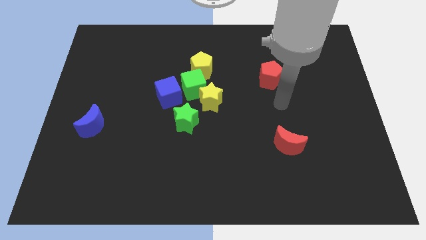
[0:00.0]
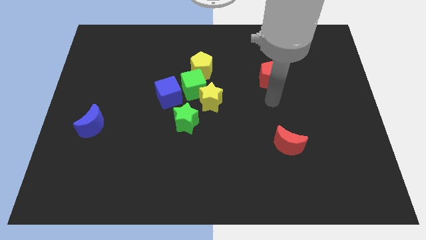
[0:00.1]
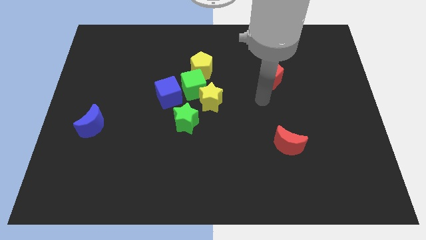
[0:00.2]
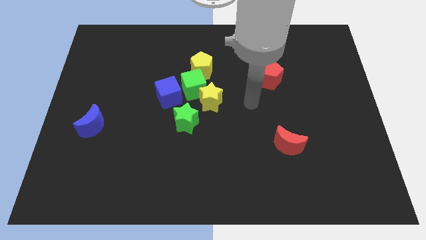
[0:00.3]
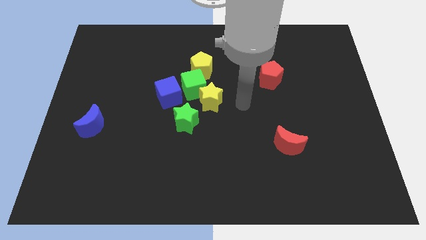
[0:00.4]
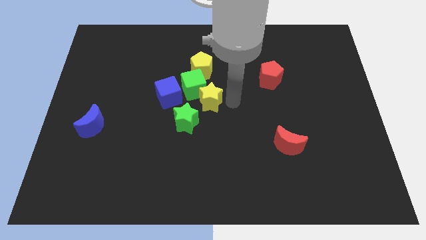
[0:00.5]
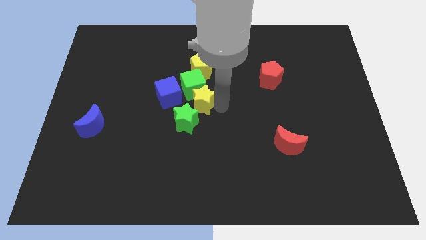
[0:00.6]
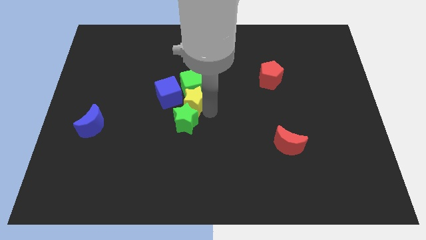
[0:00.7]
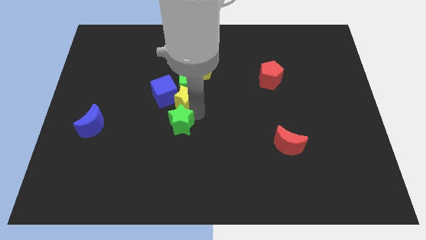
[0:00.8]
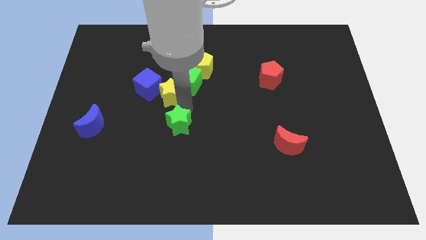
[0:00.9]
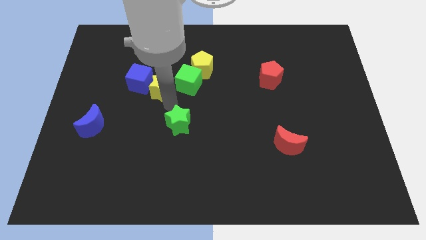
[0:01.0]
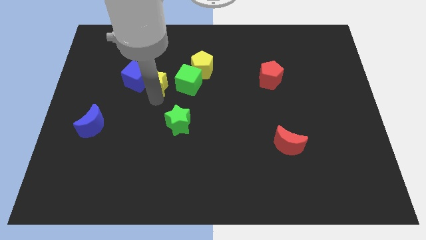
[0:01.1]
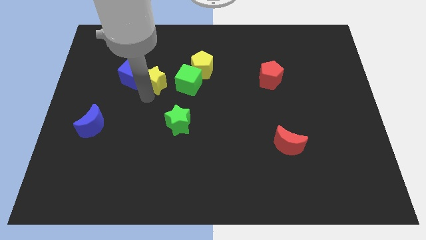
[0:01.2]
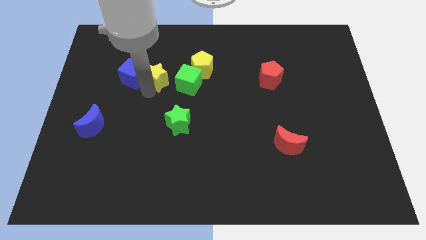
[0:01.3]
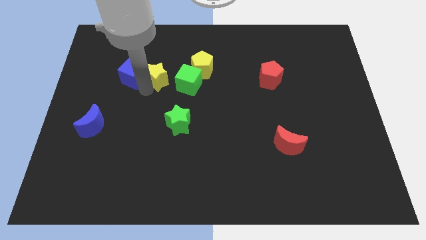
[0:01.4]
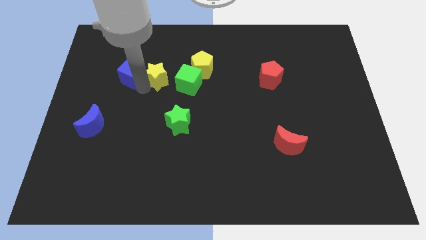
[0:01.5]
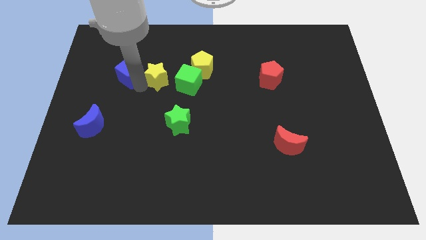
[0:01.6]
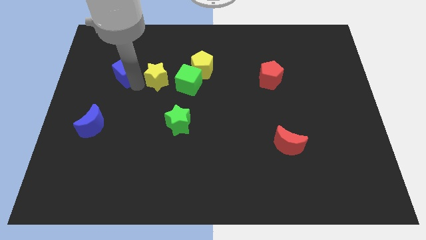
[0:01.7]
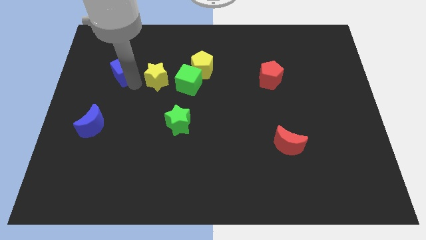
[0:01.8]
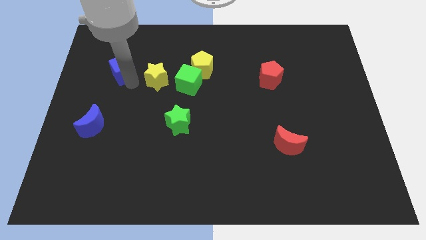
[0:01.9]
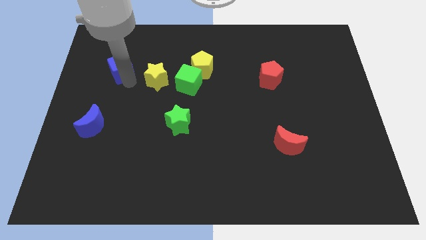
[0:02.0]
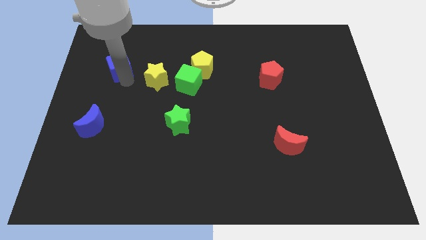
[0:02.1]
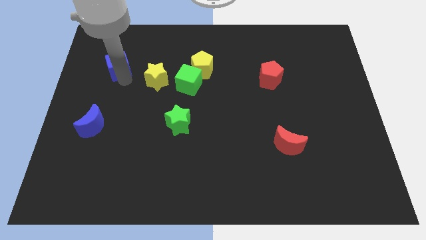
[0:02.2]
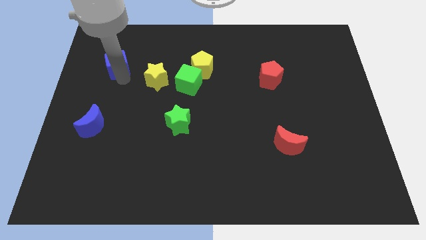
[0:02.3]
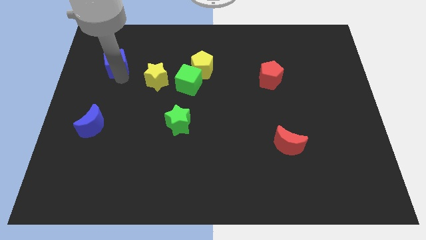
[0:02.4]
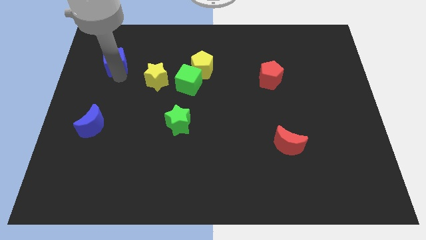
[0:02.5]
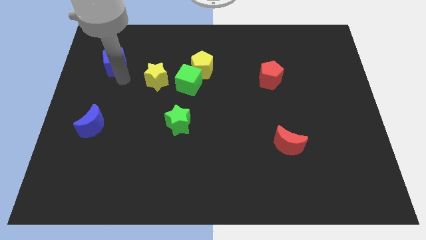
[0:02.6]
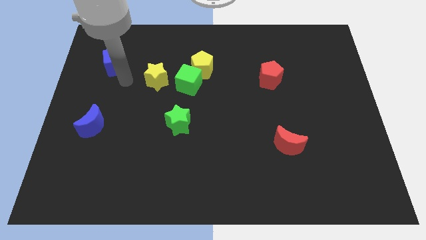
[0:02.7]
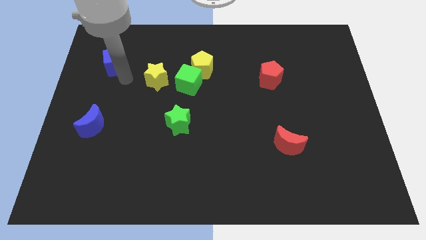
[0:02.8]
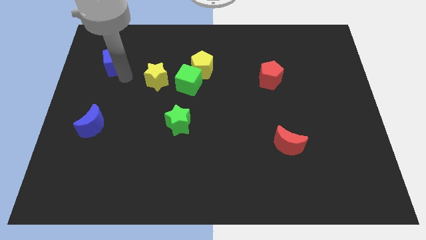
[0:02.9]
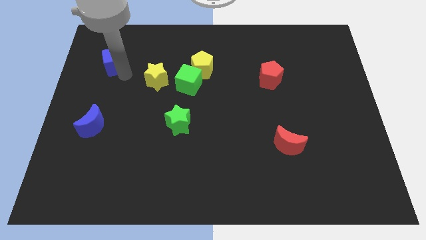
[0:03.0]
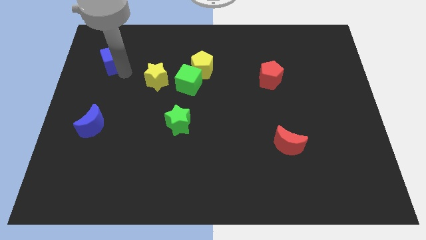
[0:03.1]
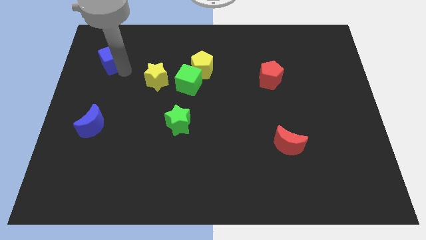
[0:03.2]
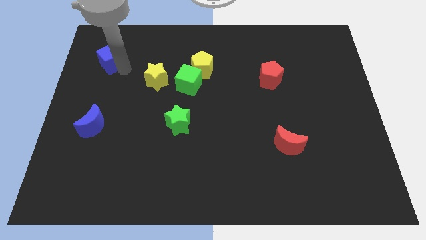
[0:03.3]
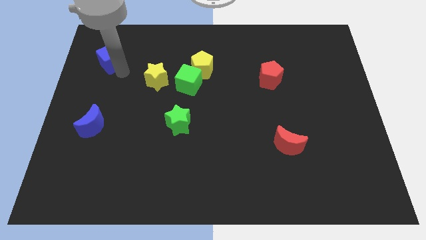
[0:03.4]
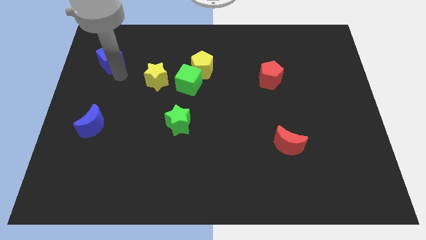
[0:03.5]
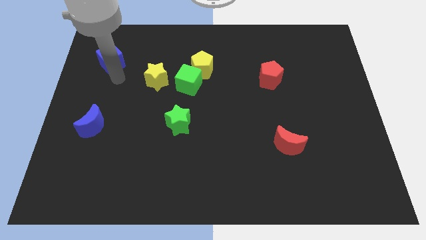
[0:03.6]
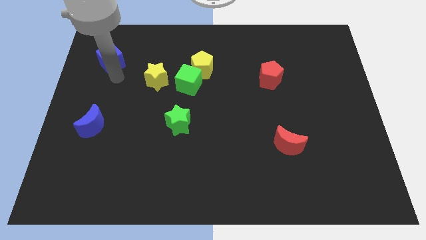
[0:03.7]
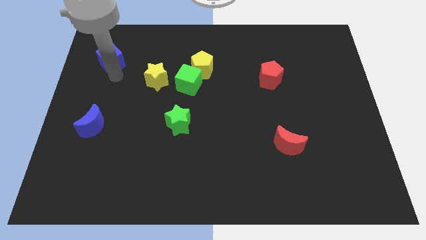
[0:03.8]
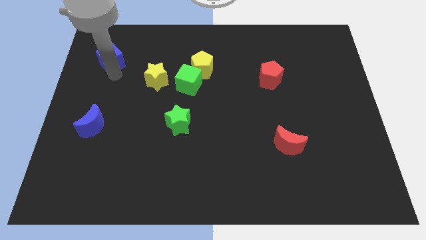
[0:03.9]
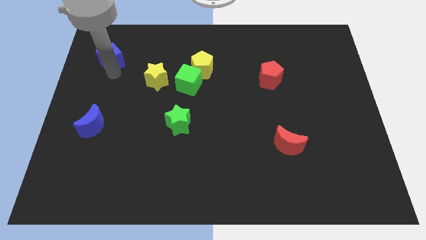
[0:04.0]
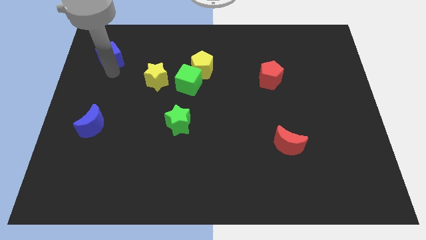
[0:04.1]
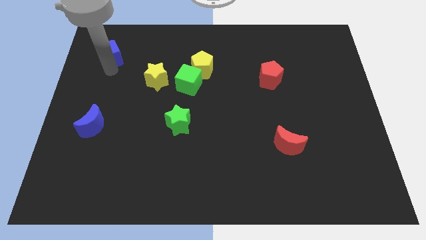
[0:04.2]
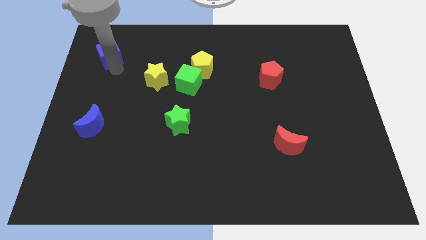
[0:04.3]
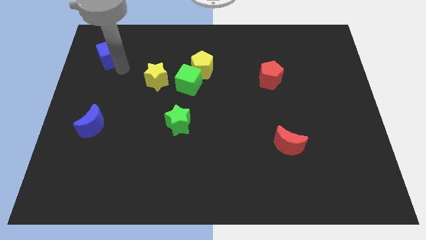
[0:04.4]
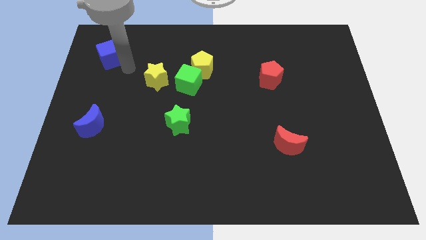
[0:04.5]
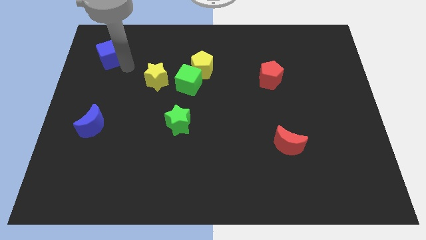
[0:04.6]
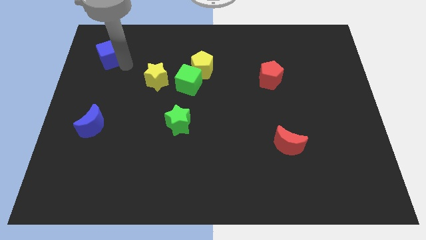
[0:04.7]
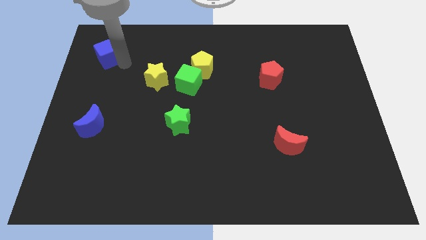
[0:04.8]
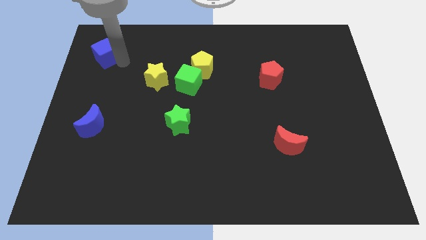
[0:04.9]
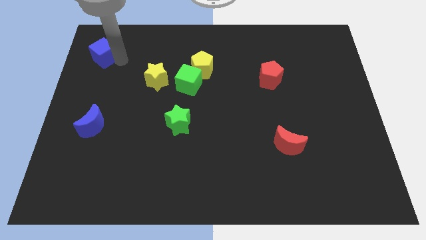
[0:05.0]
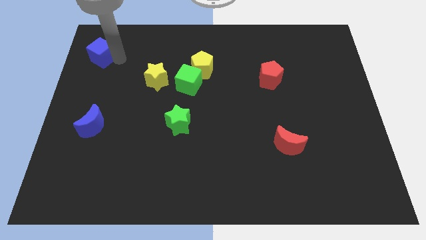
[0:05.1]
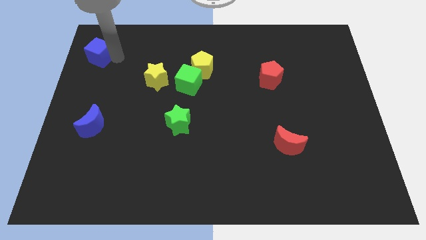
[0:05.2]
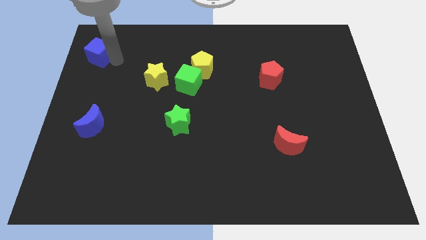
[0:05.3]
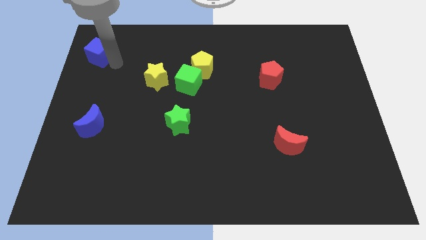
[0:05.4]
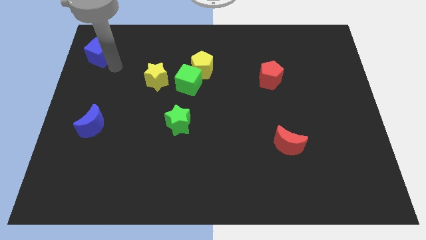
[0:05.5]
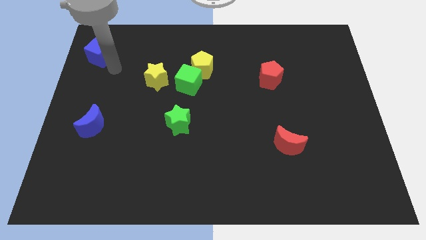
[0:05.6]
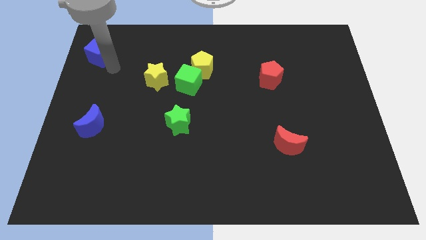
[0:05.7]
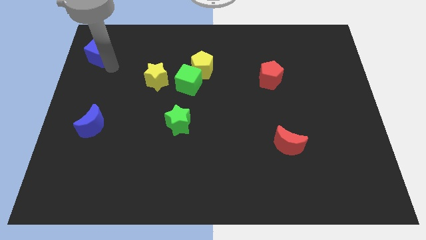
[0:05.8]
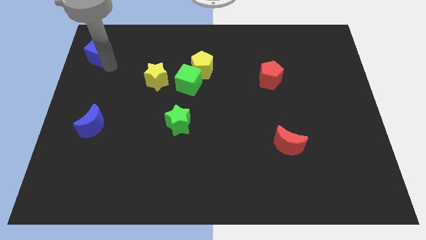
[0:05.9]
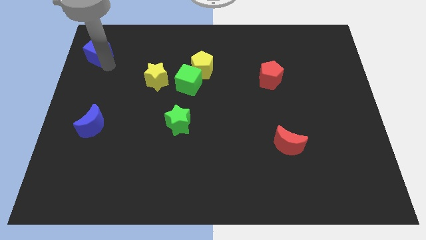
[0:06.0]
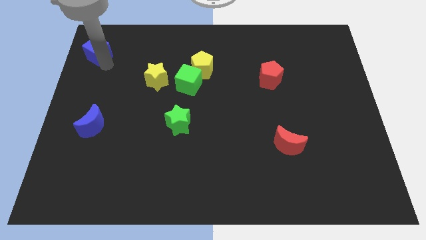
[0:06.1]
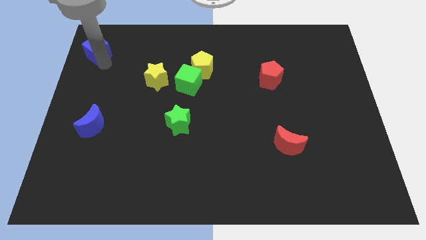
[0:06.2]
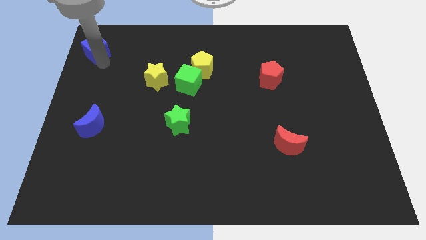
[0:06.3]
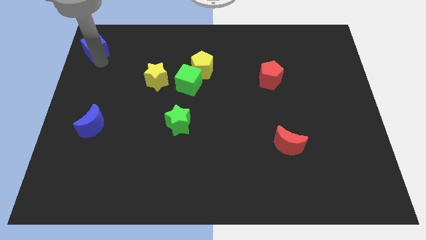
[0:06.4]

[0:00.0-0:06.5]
move the blue cube to the upper left corner
